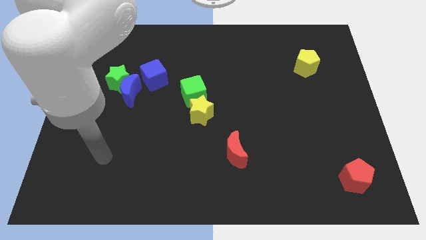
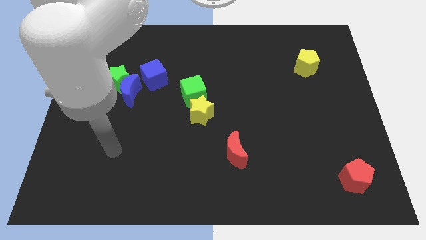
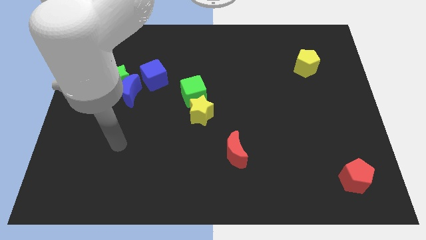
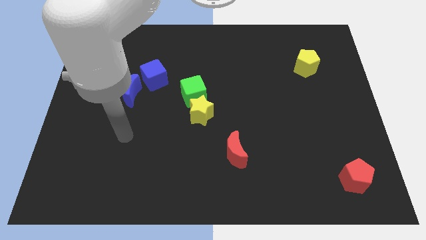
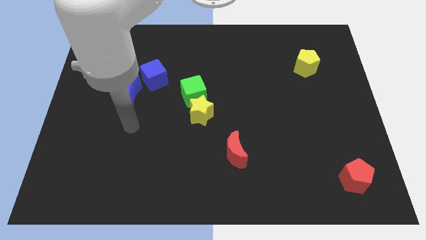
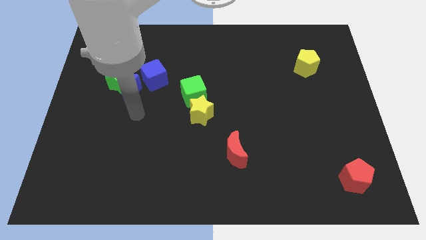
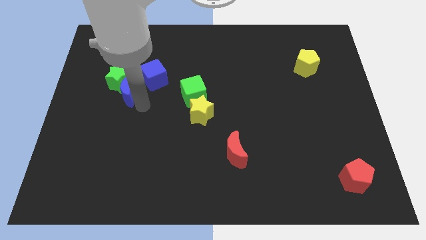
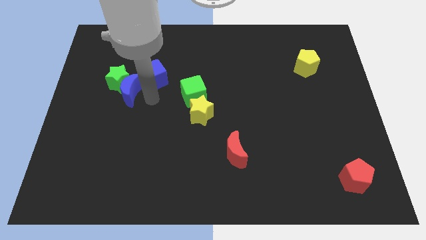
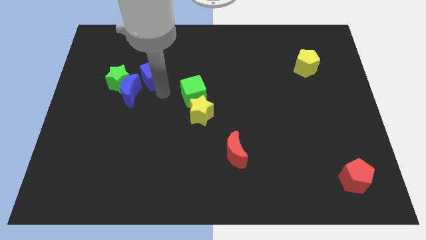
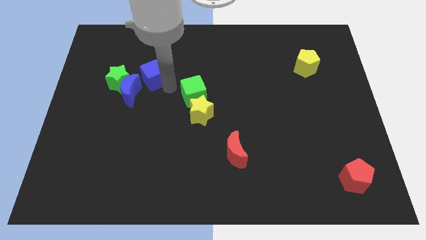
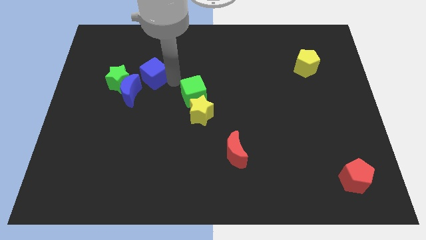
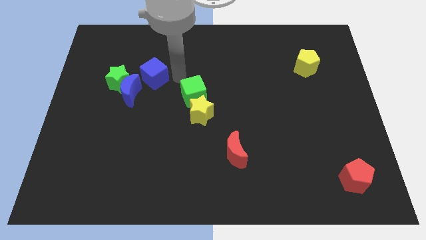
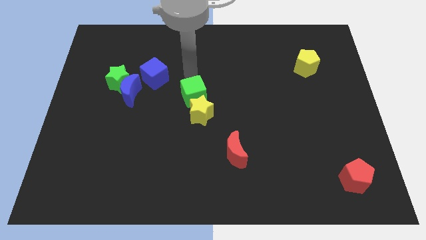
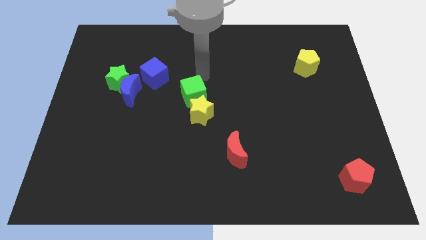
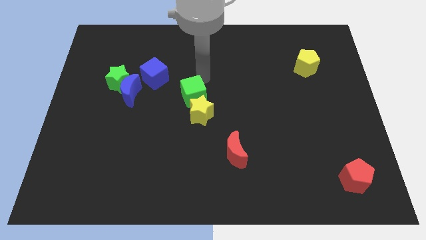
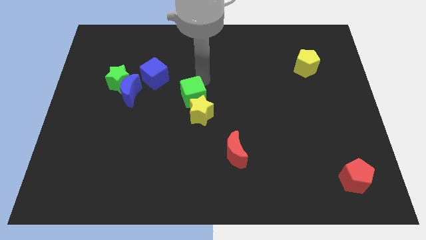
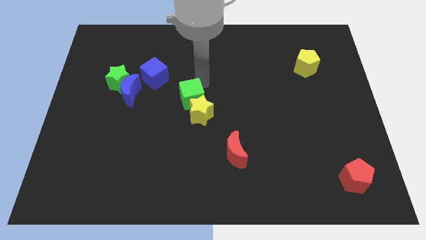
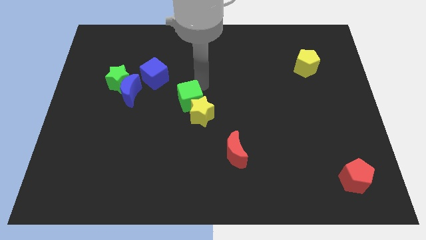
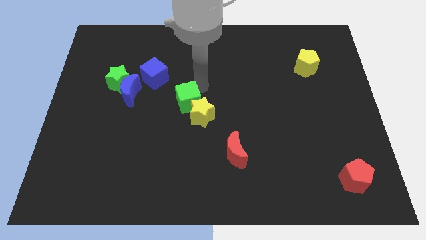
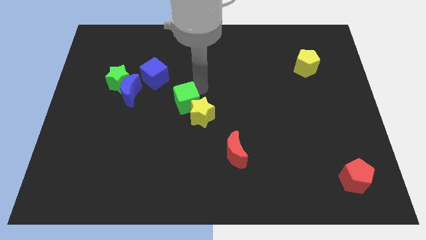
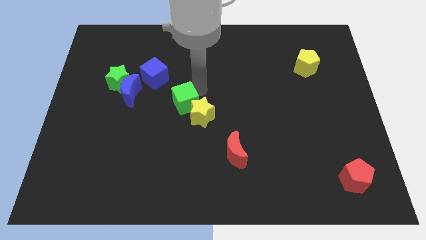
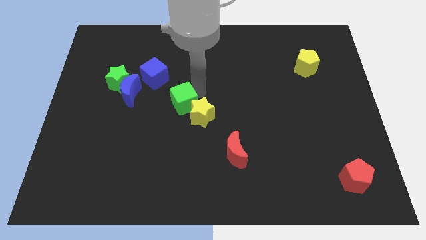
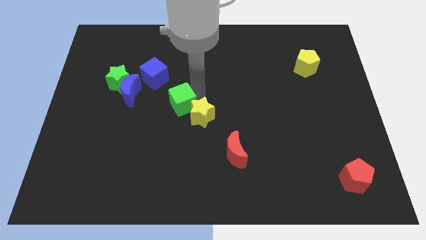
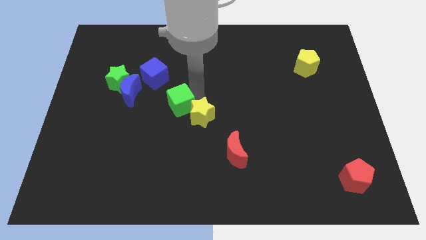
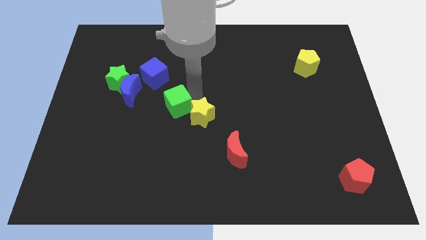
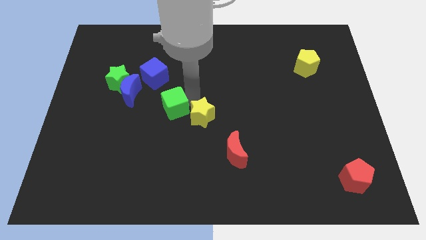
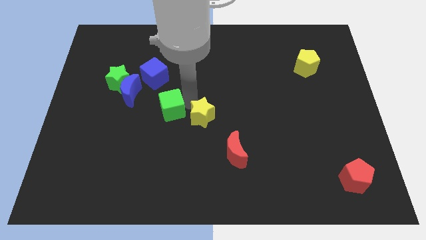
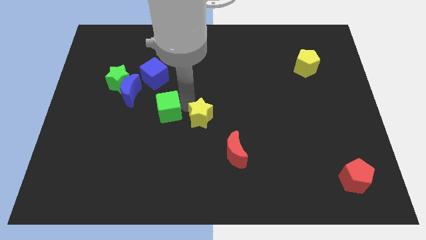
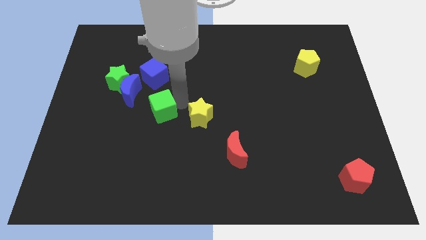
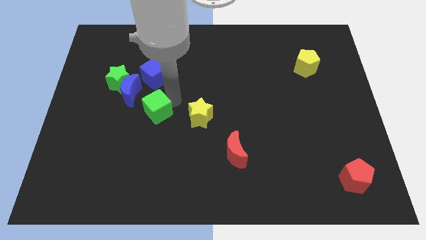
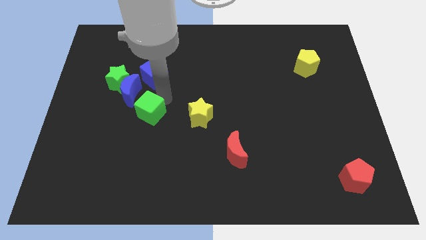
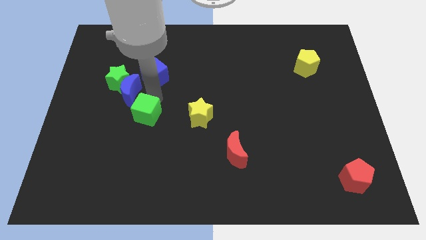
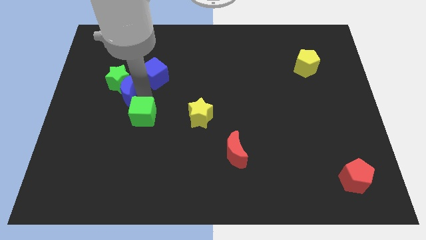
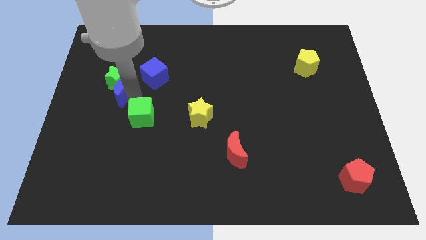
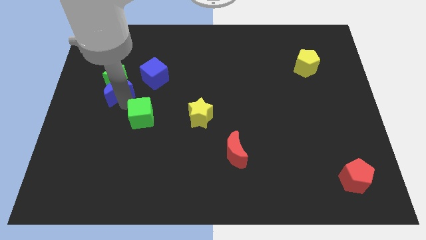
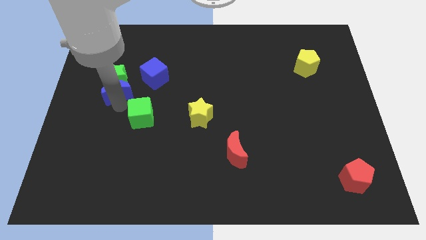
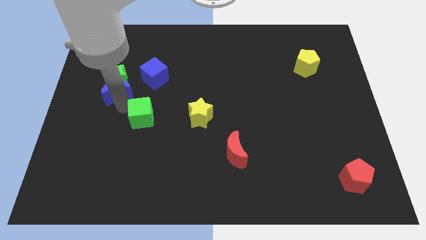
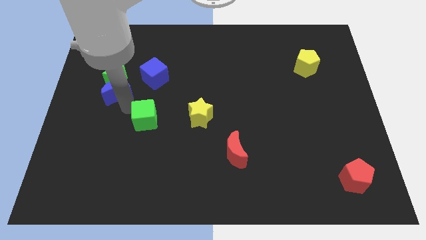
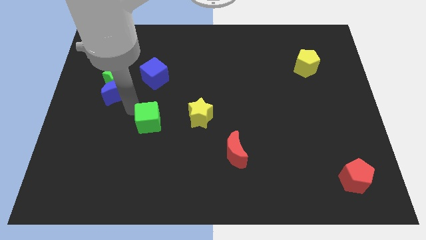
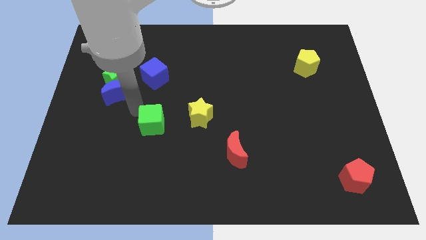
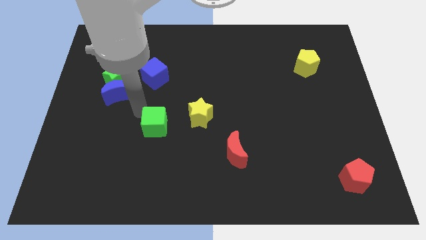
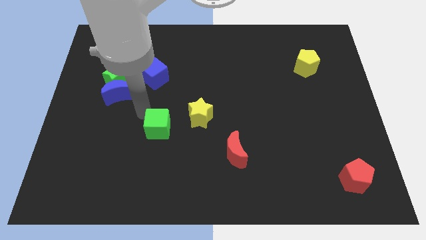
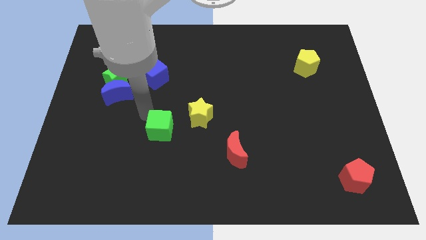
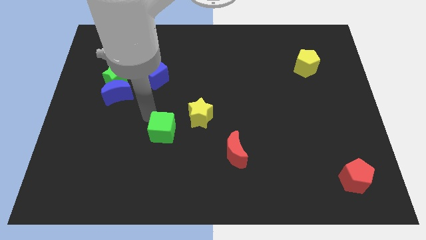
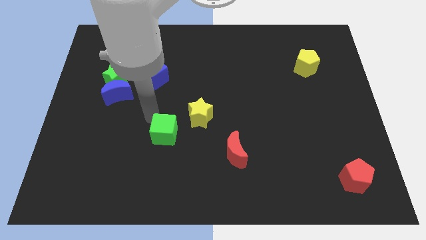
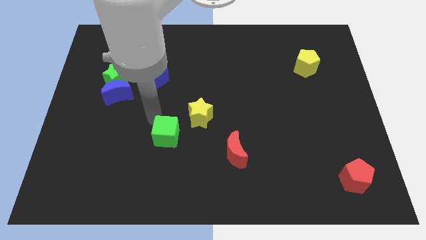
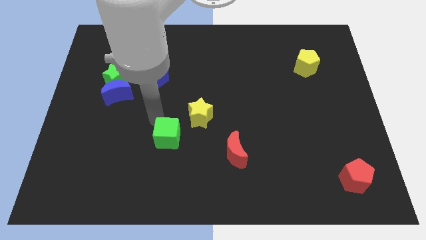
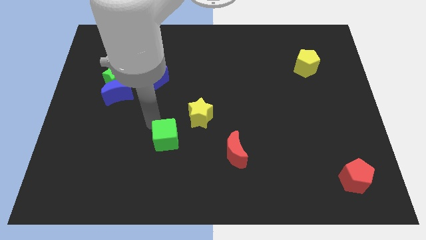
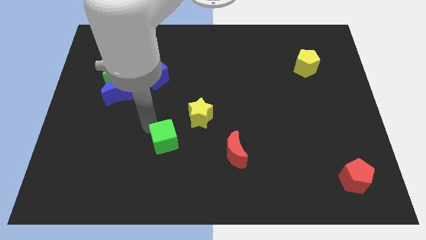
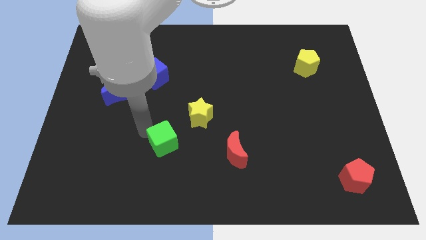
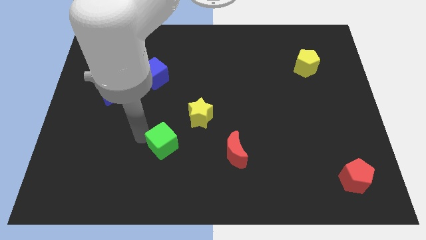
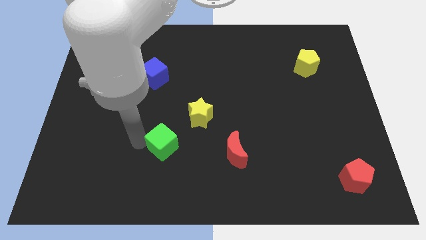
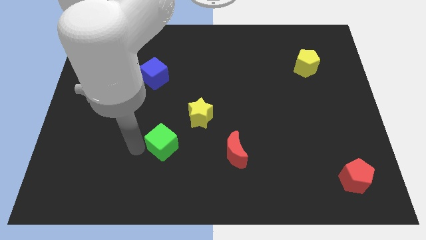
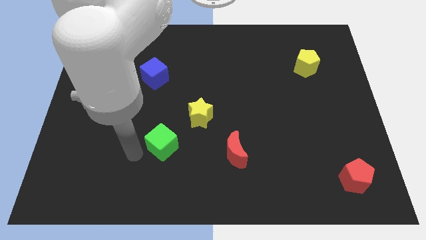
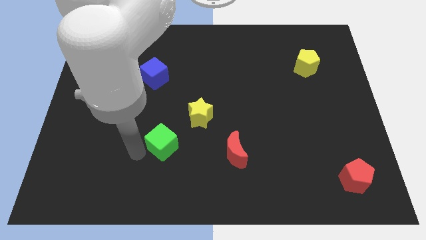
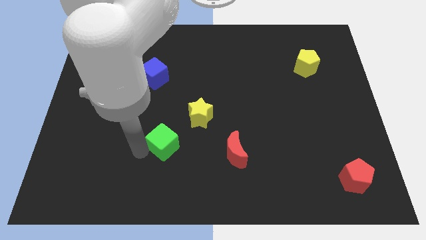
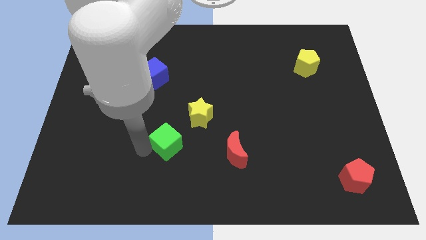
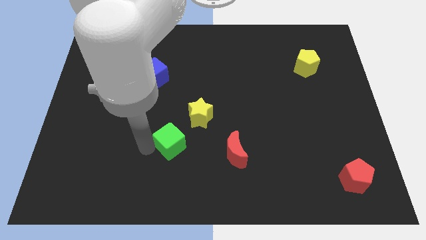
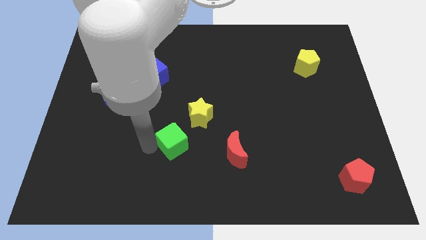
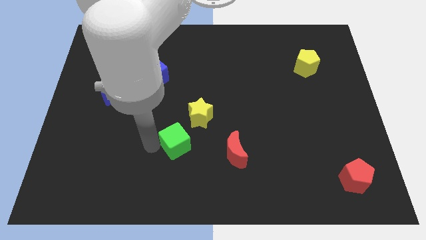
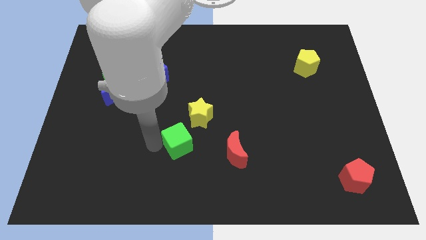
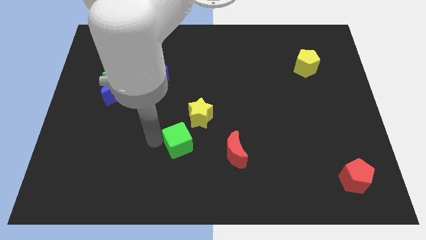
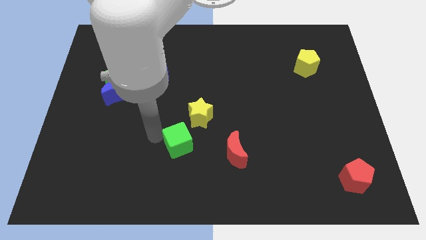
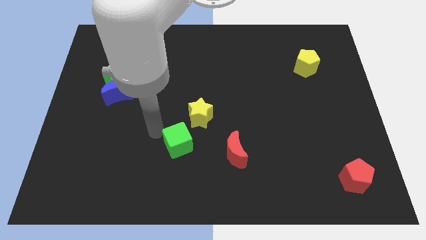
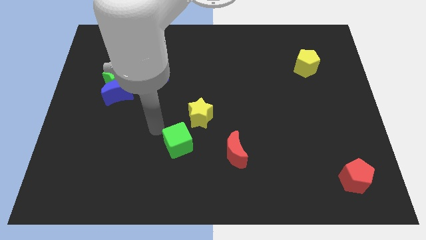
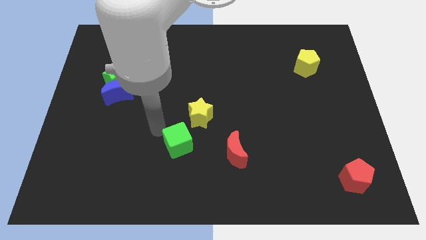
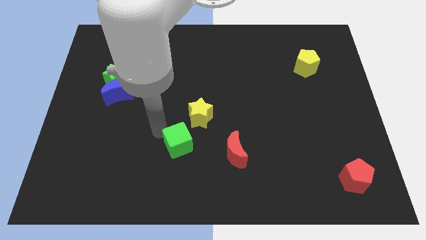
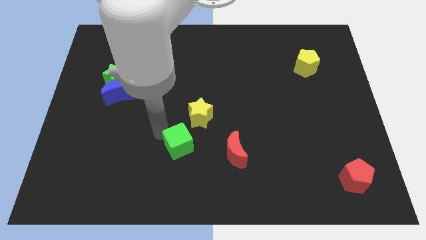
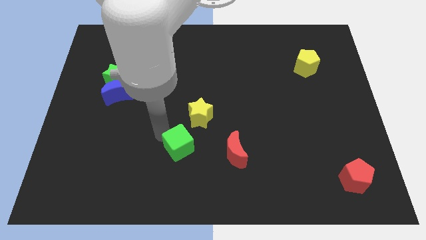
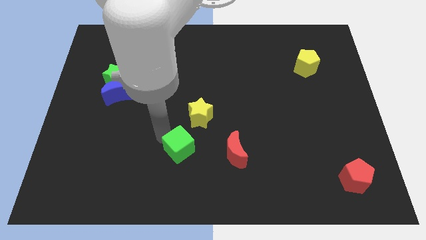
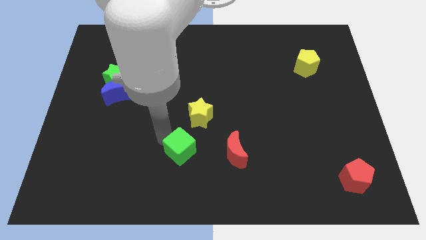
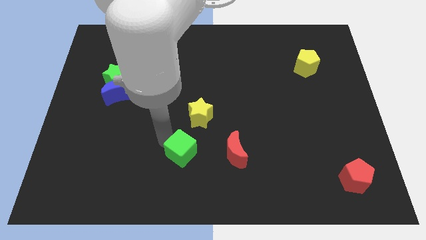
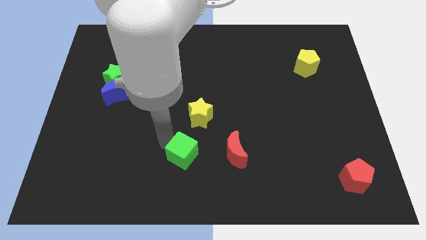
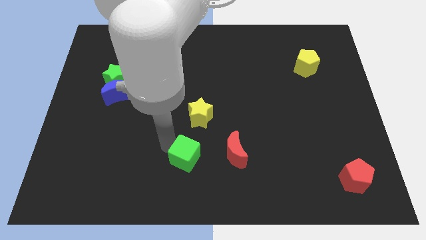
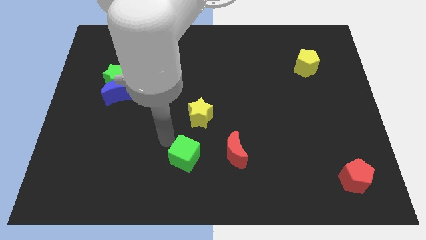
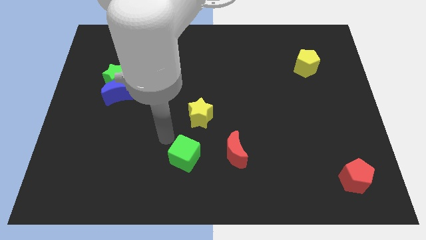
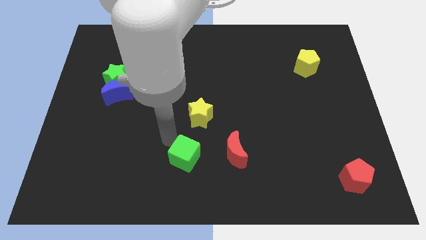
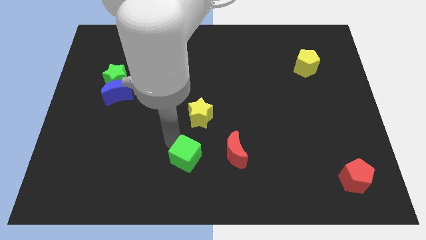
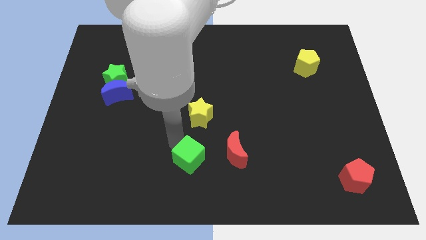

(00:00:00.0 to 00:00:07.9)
push the green cube to the bottom side
